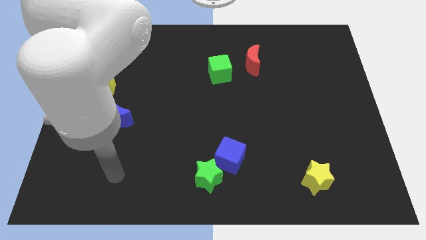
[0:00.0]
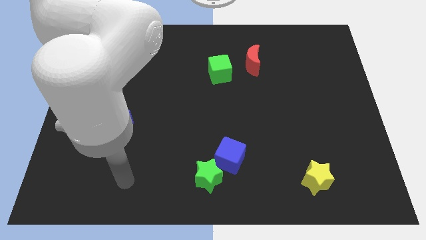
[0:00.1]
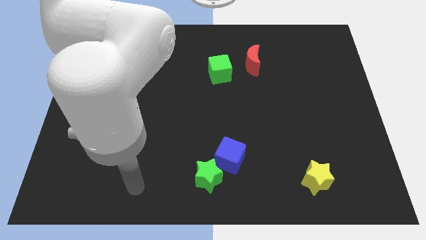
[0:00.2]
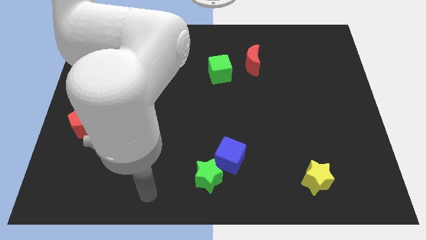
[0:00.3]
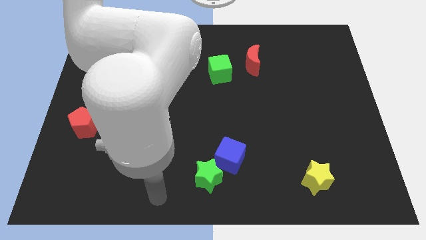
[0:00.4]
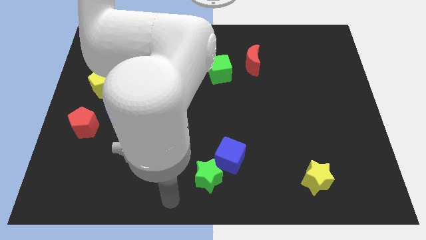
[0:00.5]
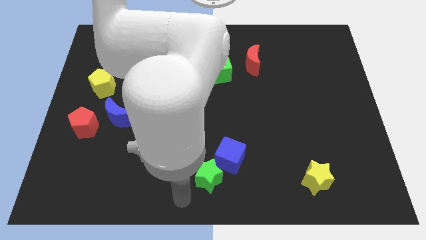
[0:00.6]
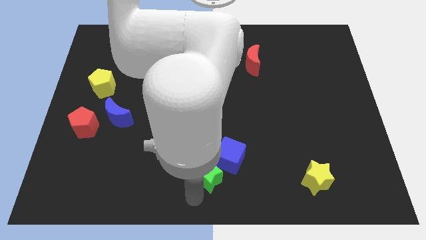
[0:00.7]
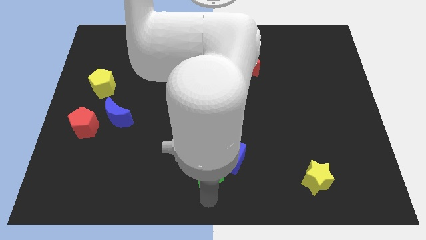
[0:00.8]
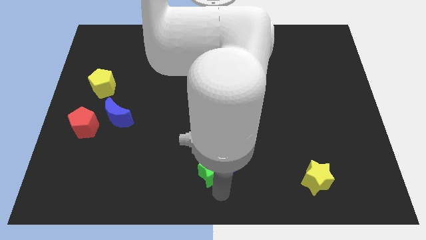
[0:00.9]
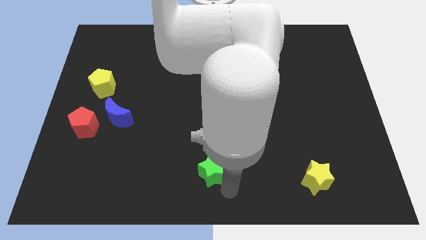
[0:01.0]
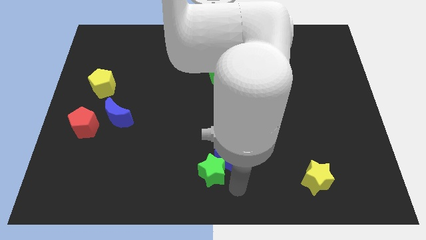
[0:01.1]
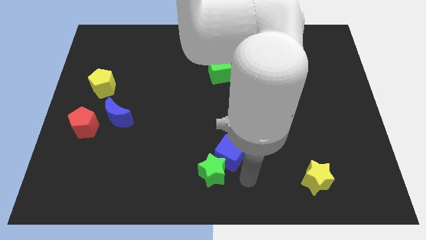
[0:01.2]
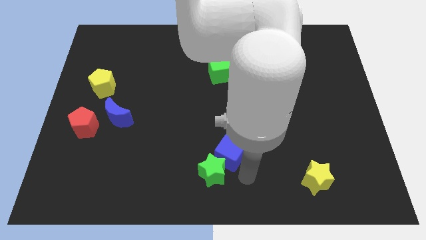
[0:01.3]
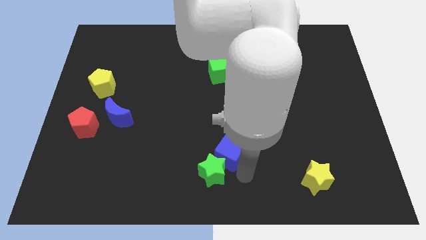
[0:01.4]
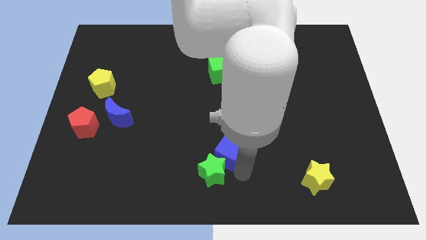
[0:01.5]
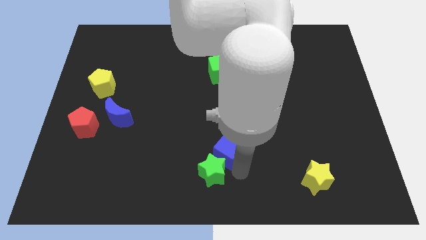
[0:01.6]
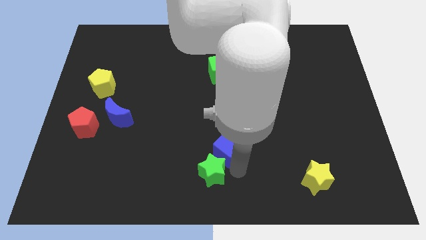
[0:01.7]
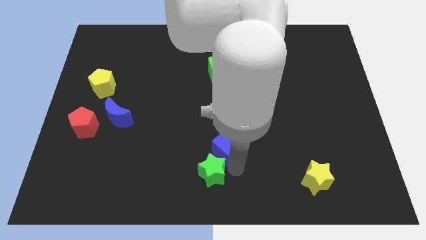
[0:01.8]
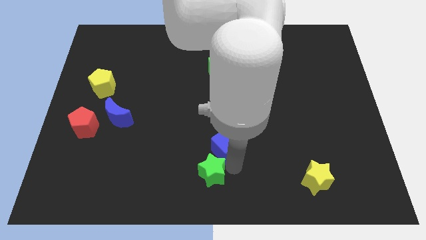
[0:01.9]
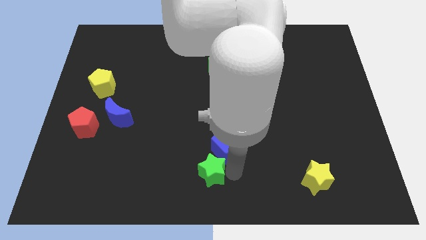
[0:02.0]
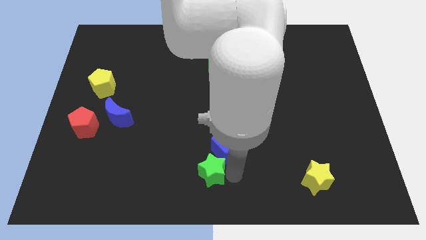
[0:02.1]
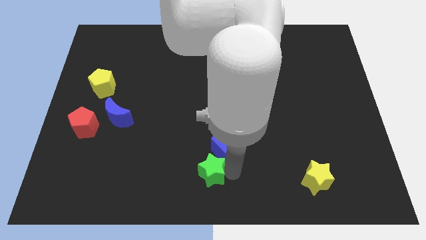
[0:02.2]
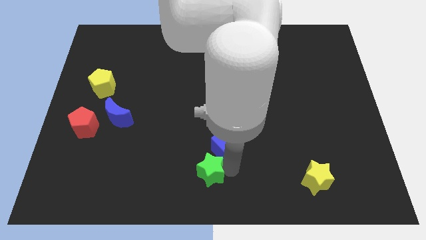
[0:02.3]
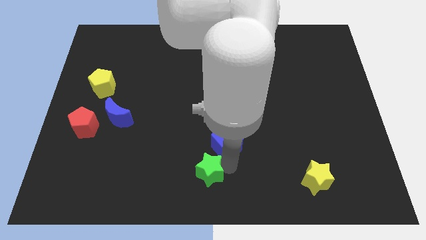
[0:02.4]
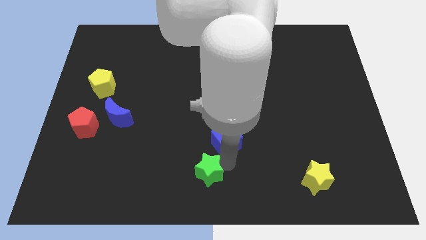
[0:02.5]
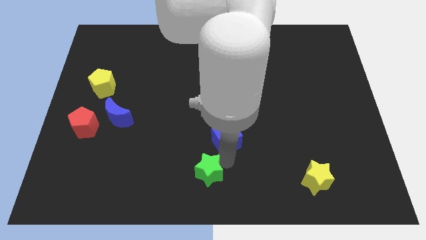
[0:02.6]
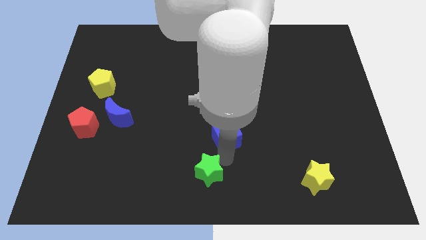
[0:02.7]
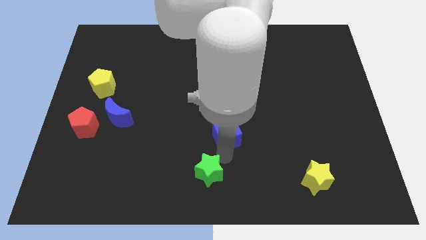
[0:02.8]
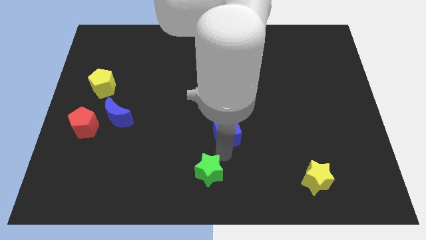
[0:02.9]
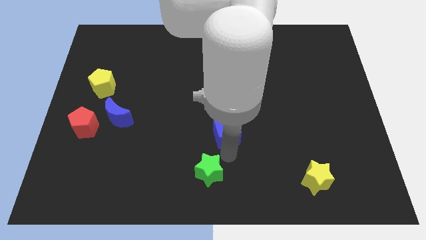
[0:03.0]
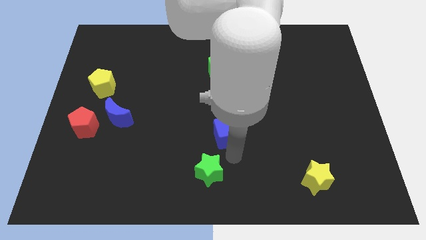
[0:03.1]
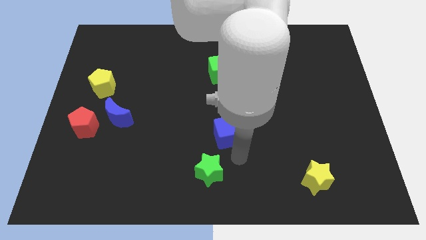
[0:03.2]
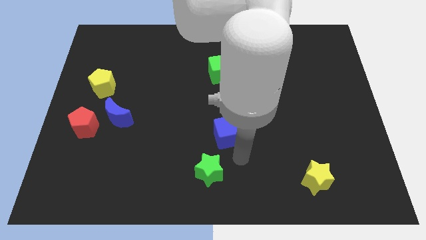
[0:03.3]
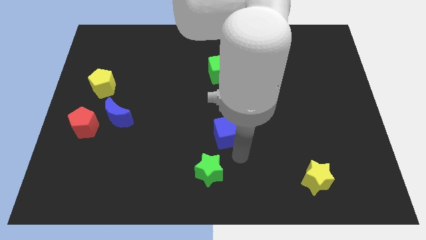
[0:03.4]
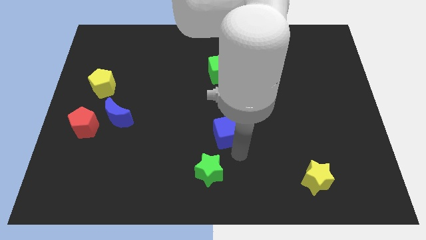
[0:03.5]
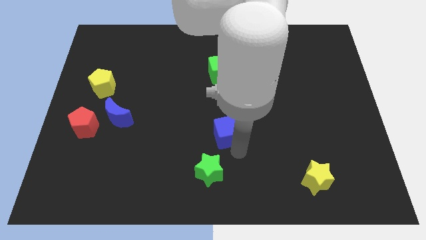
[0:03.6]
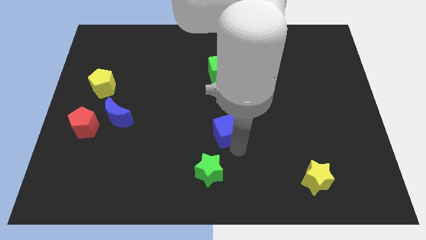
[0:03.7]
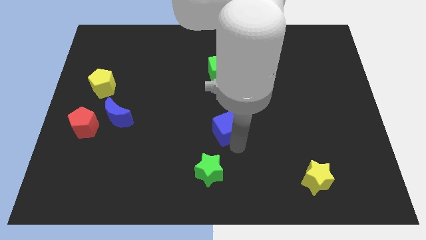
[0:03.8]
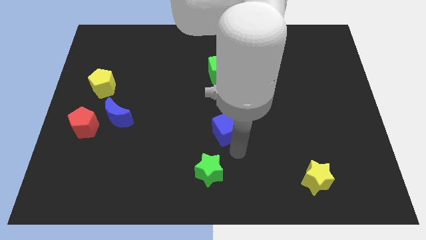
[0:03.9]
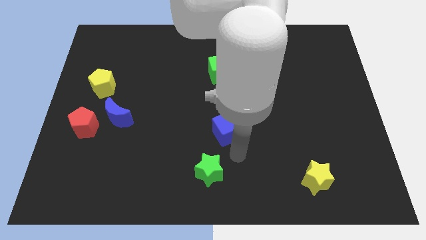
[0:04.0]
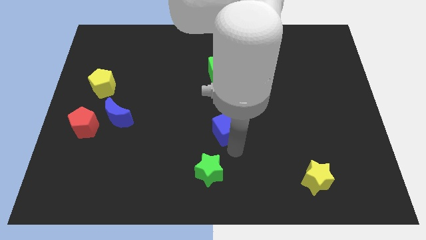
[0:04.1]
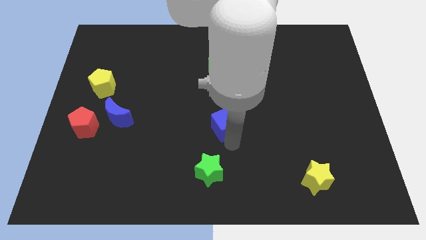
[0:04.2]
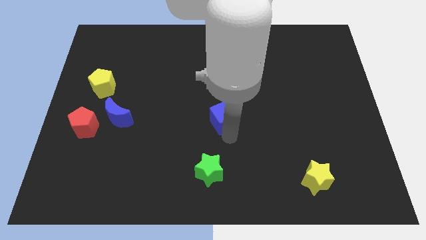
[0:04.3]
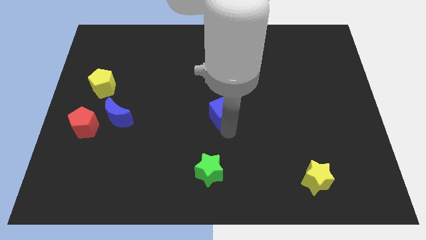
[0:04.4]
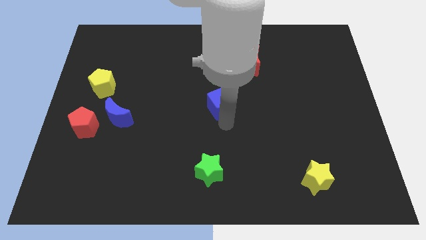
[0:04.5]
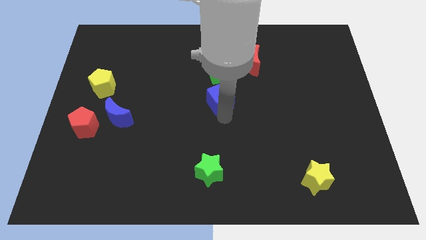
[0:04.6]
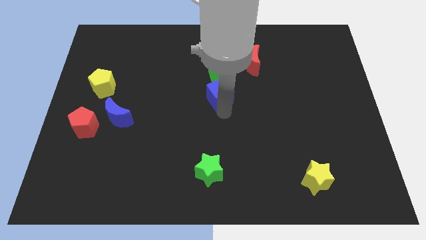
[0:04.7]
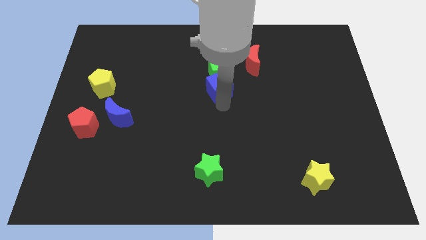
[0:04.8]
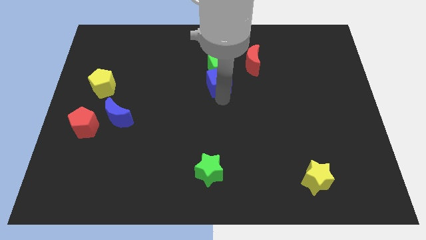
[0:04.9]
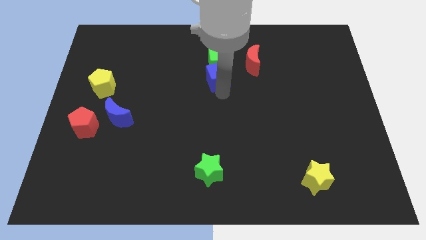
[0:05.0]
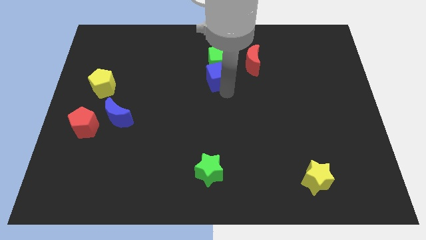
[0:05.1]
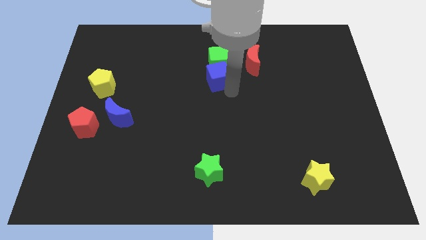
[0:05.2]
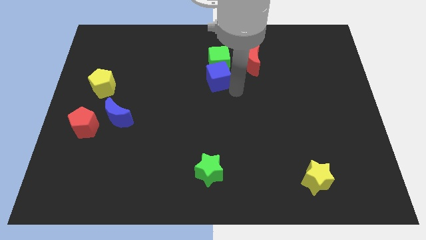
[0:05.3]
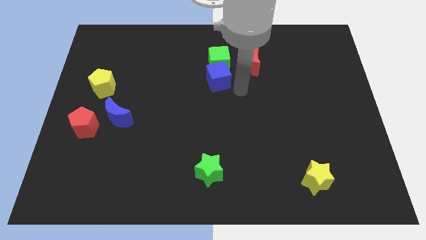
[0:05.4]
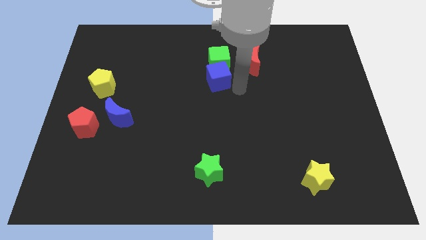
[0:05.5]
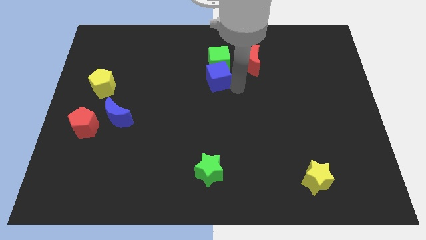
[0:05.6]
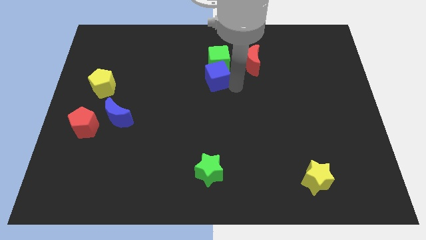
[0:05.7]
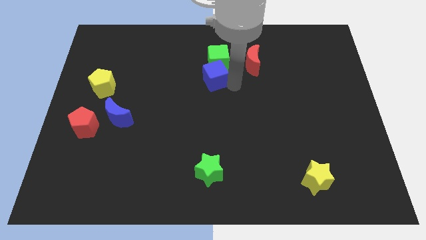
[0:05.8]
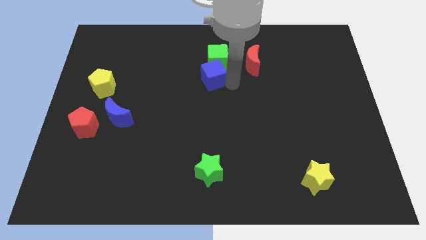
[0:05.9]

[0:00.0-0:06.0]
put the blue cube just left of the red moon

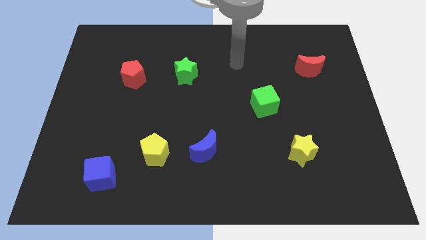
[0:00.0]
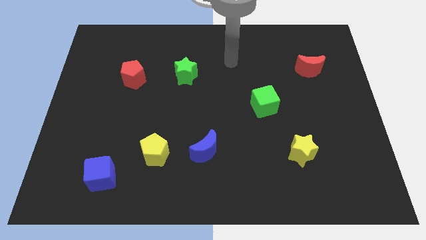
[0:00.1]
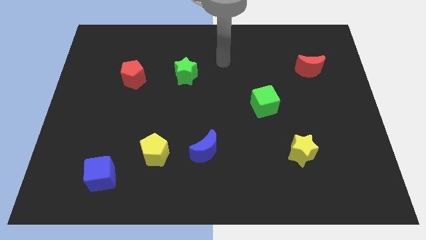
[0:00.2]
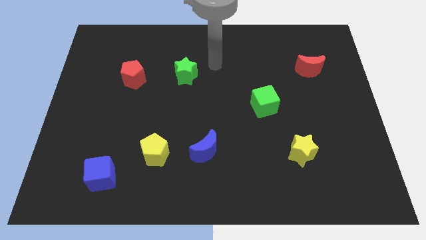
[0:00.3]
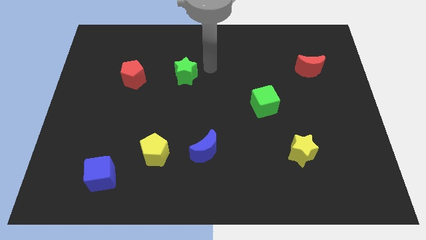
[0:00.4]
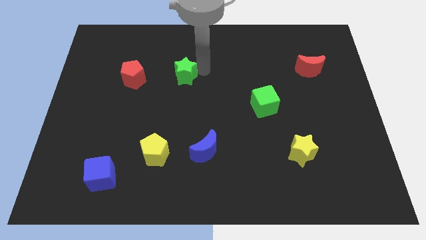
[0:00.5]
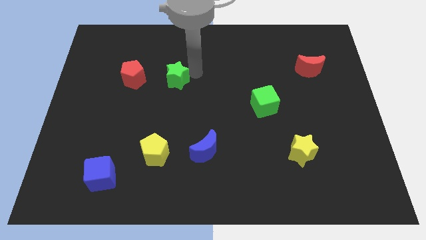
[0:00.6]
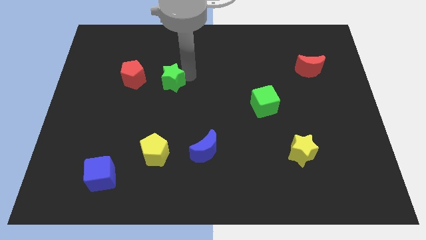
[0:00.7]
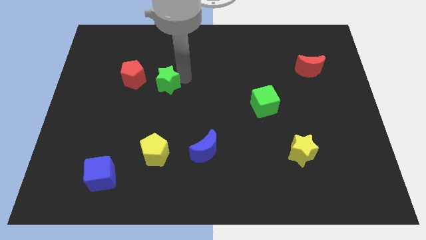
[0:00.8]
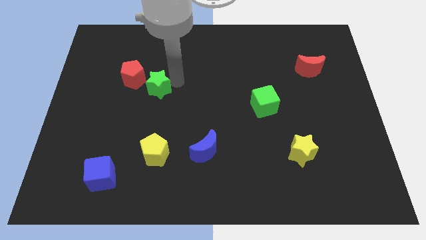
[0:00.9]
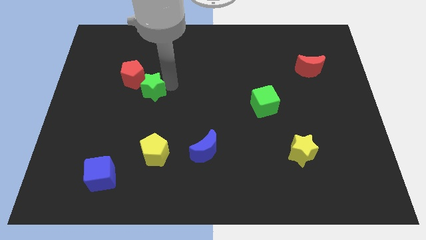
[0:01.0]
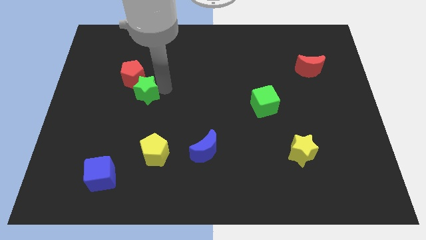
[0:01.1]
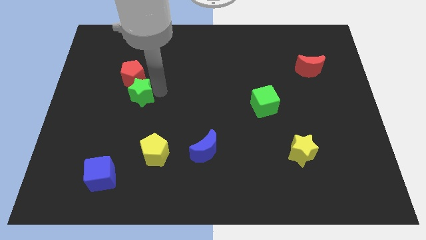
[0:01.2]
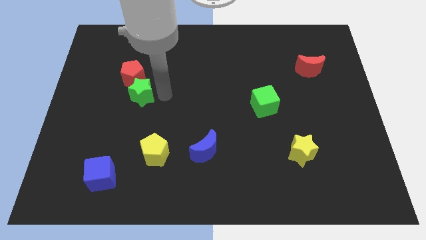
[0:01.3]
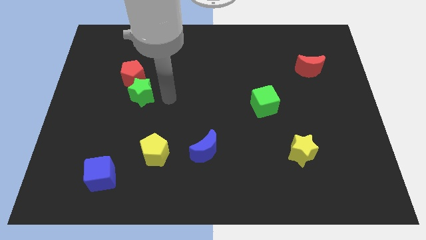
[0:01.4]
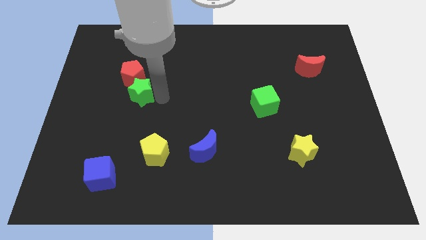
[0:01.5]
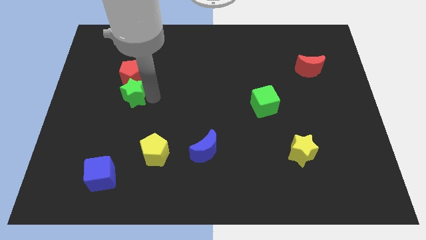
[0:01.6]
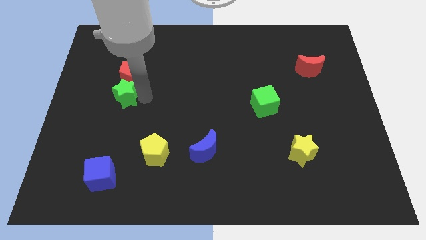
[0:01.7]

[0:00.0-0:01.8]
slide the green star to the bottom left of the red pentagon
